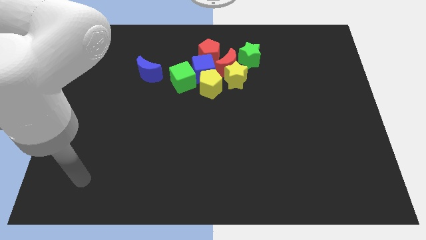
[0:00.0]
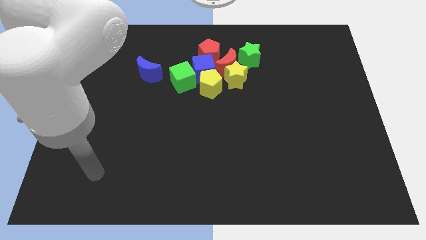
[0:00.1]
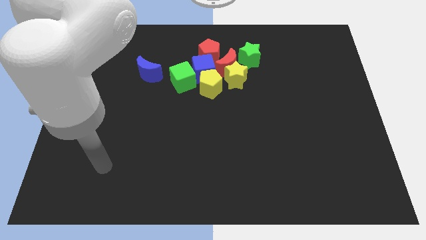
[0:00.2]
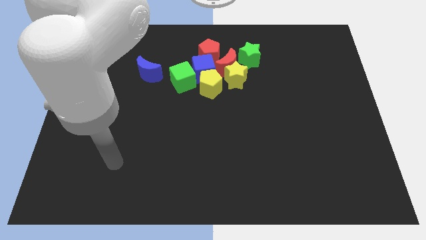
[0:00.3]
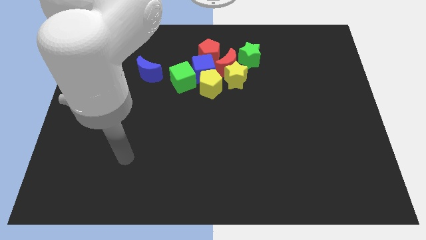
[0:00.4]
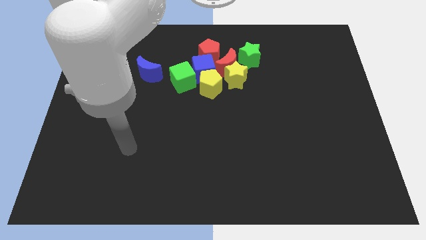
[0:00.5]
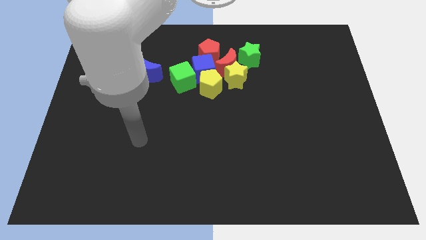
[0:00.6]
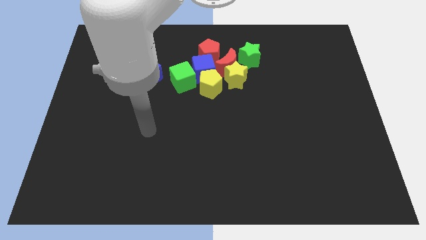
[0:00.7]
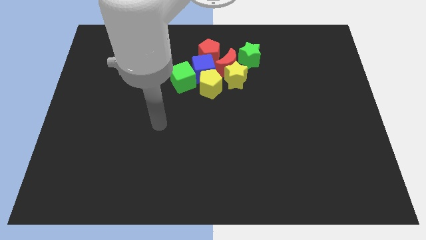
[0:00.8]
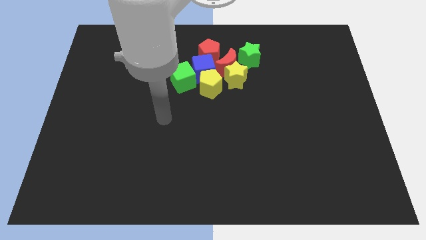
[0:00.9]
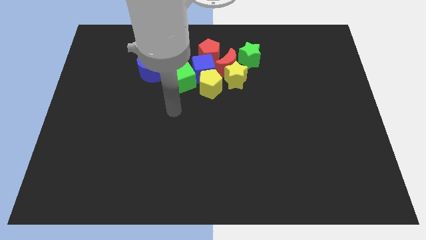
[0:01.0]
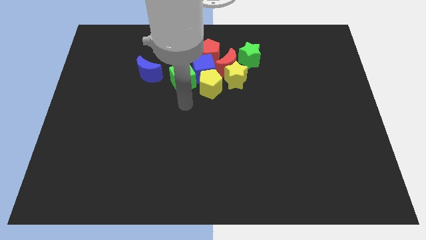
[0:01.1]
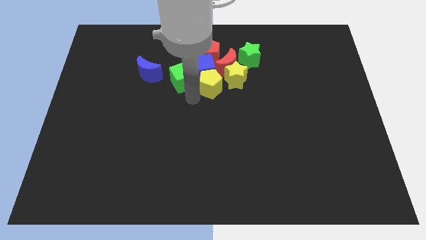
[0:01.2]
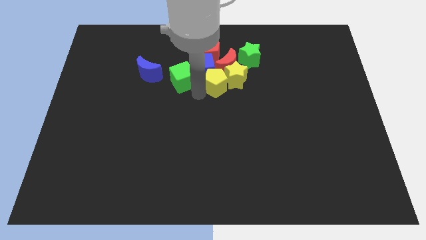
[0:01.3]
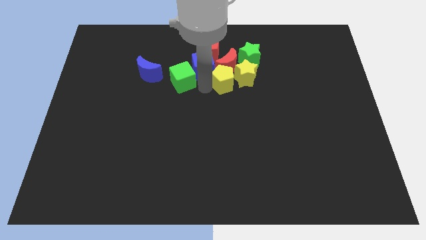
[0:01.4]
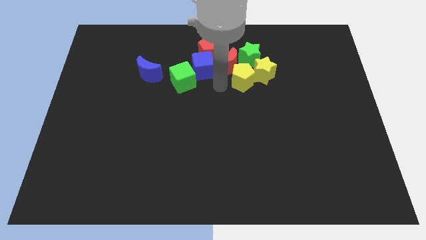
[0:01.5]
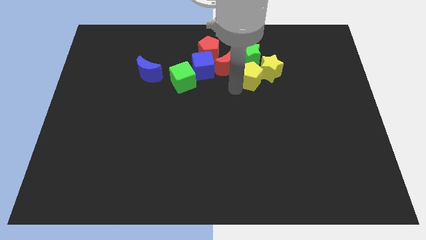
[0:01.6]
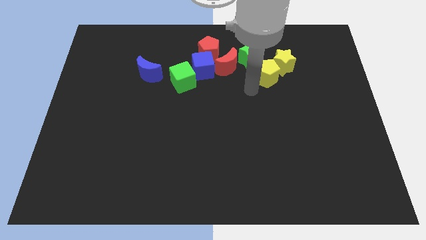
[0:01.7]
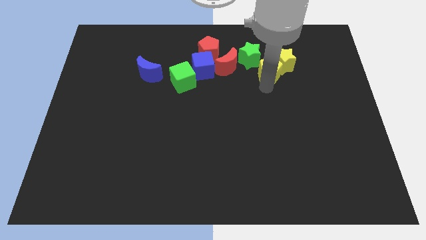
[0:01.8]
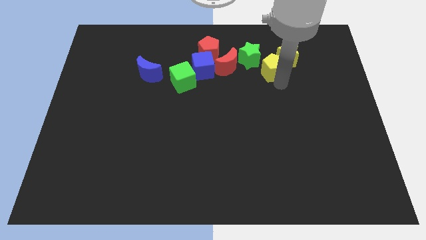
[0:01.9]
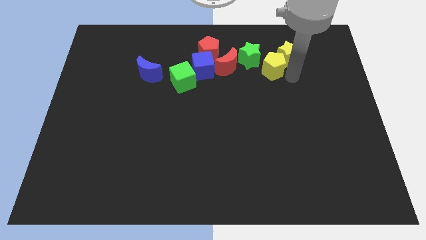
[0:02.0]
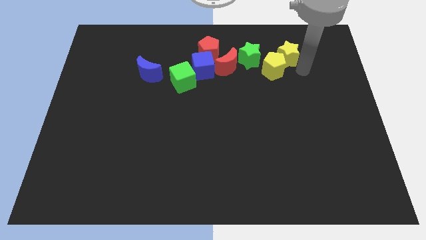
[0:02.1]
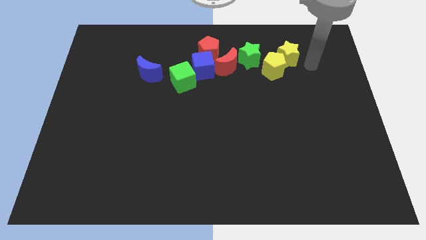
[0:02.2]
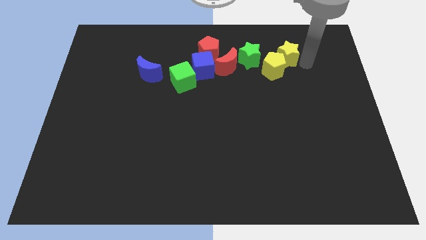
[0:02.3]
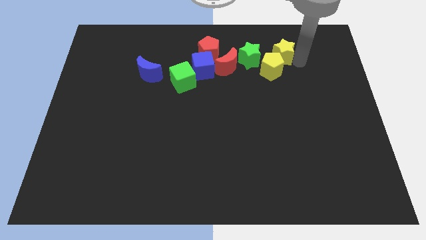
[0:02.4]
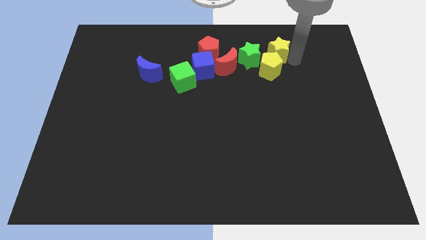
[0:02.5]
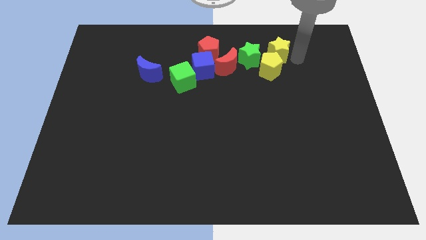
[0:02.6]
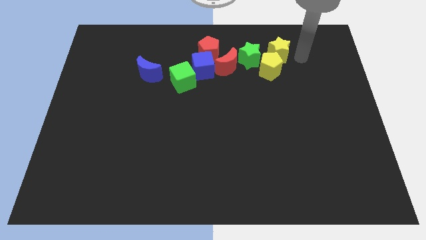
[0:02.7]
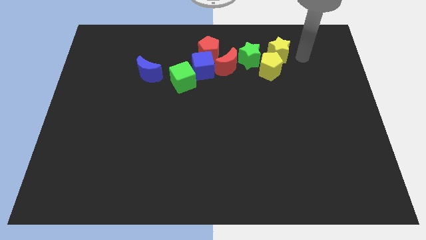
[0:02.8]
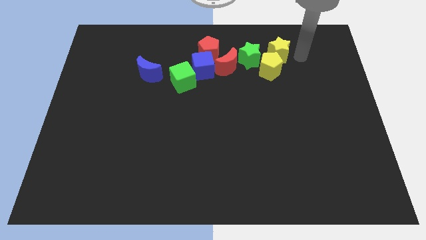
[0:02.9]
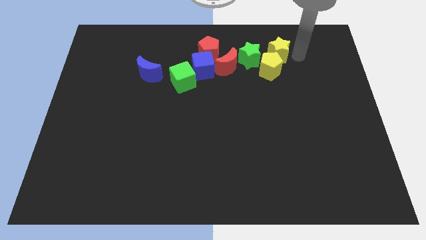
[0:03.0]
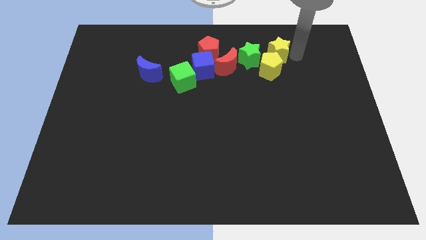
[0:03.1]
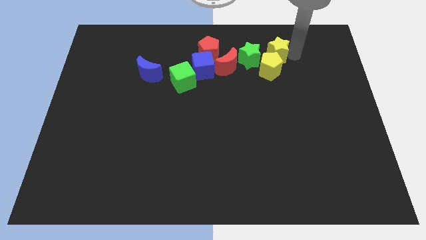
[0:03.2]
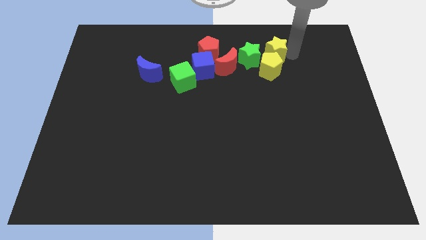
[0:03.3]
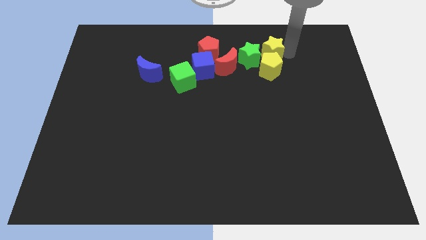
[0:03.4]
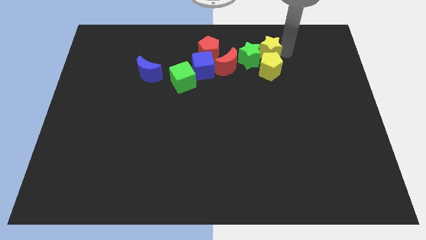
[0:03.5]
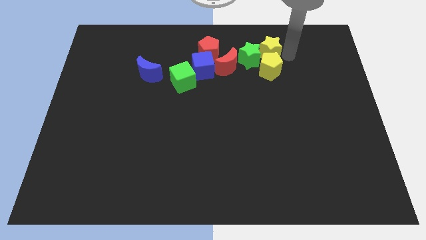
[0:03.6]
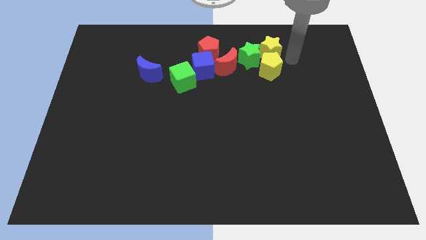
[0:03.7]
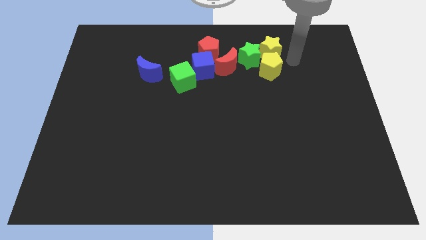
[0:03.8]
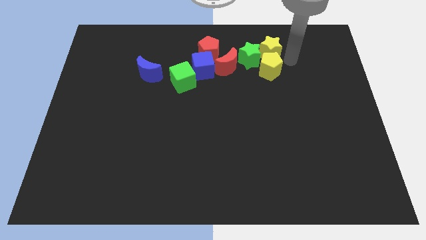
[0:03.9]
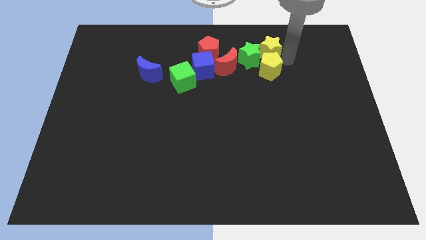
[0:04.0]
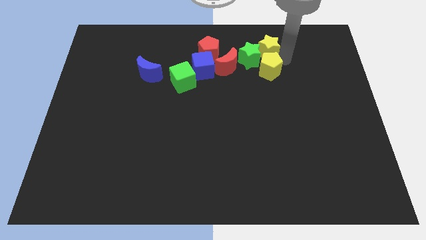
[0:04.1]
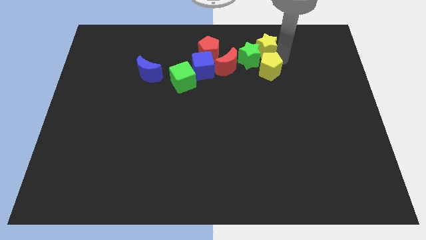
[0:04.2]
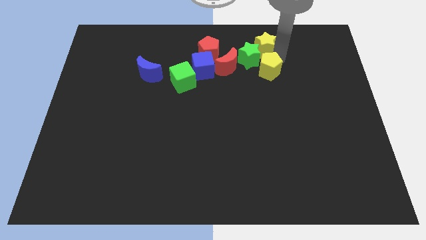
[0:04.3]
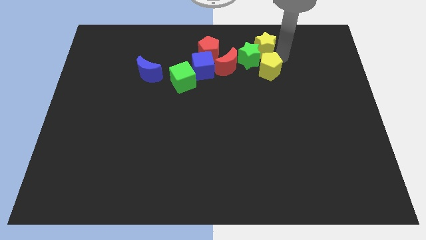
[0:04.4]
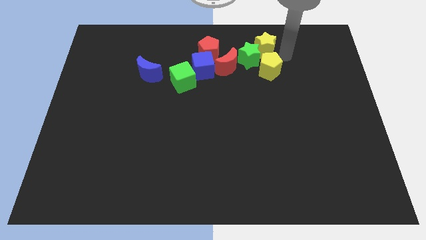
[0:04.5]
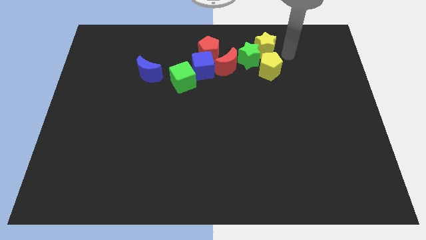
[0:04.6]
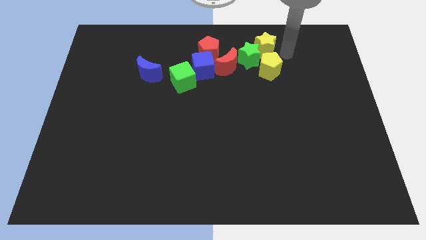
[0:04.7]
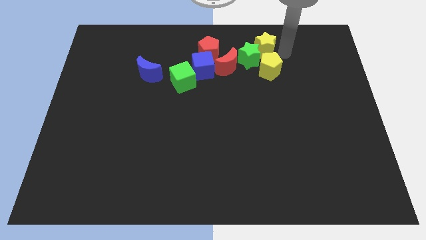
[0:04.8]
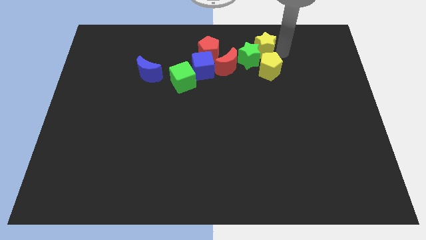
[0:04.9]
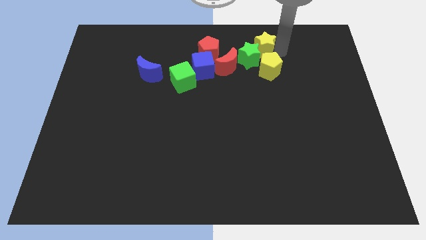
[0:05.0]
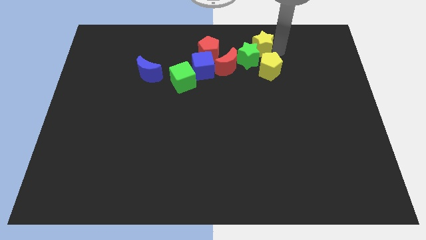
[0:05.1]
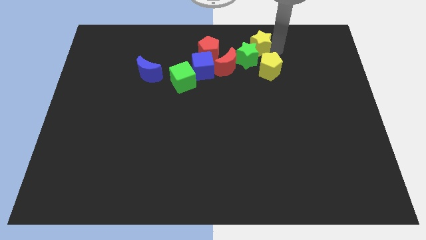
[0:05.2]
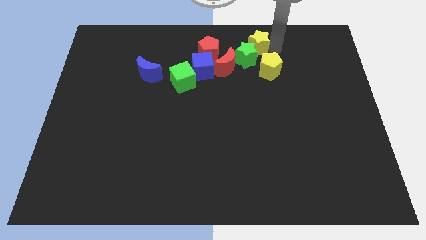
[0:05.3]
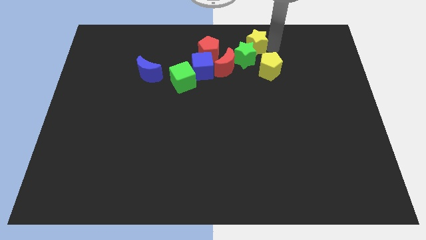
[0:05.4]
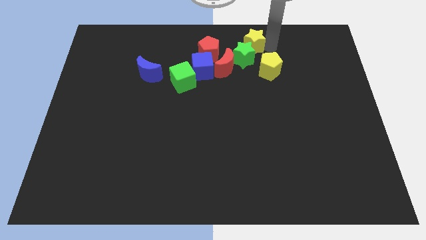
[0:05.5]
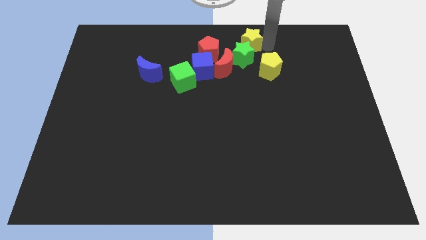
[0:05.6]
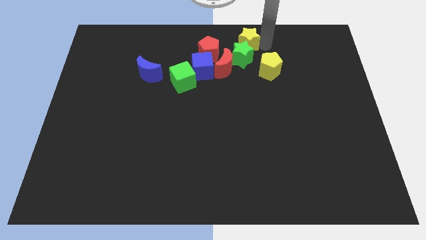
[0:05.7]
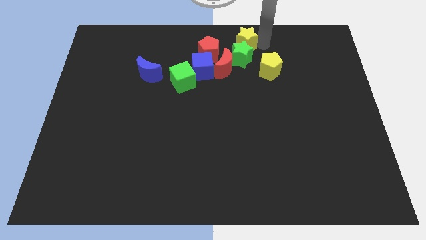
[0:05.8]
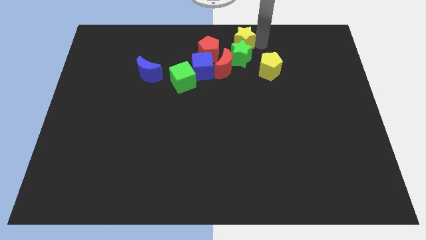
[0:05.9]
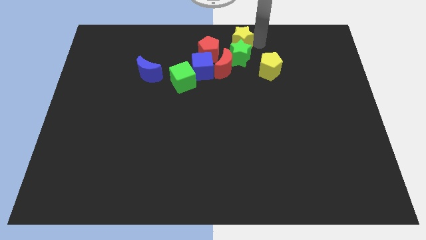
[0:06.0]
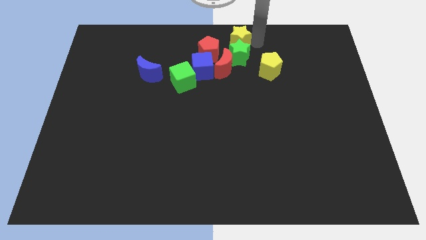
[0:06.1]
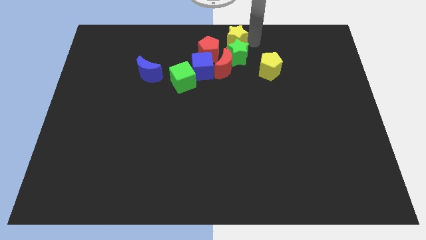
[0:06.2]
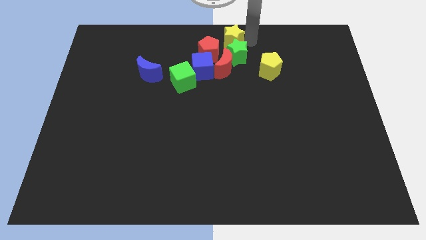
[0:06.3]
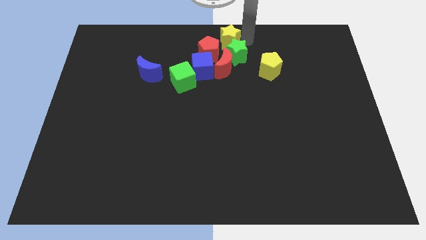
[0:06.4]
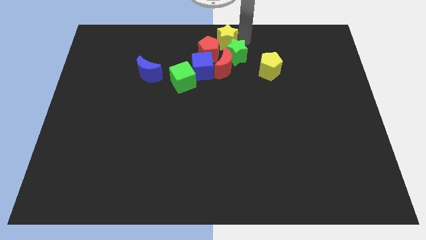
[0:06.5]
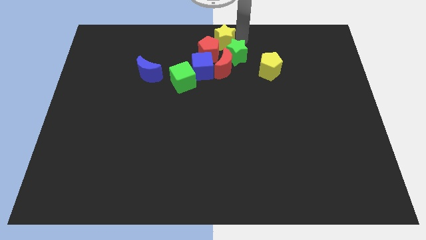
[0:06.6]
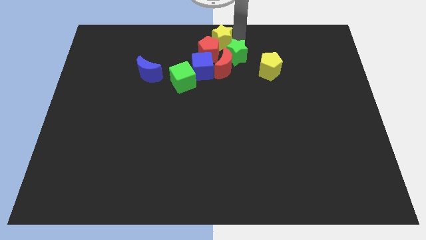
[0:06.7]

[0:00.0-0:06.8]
put the yellow star to the red pentagon

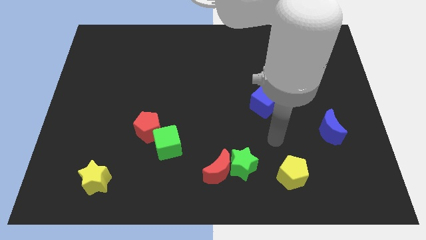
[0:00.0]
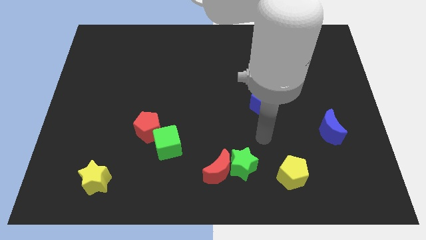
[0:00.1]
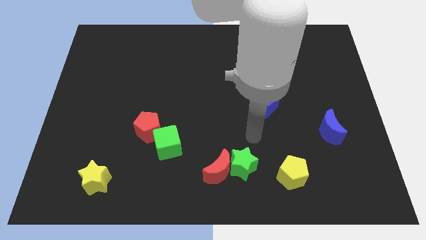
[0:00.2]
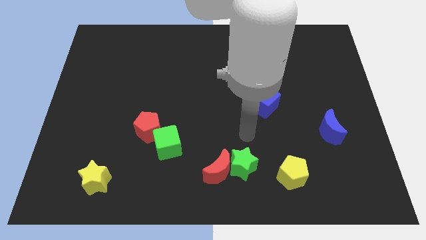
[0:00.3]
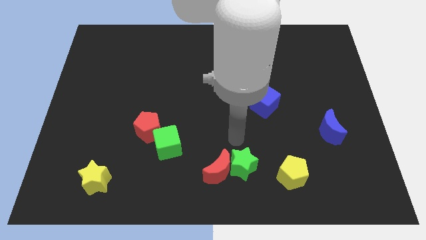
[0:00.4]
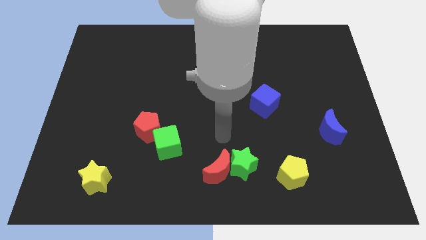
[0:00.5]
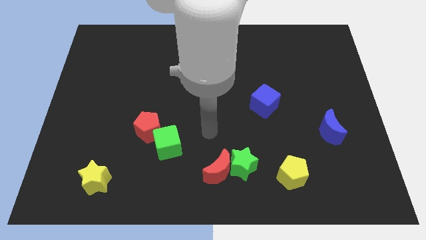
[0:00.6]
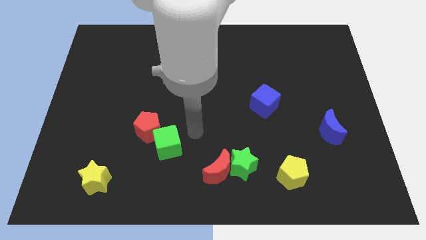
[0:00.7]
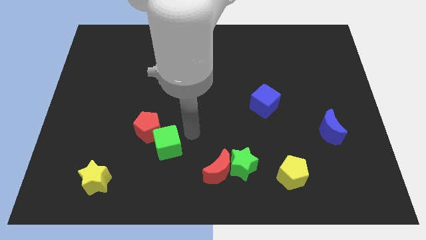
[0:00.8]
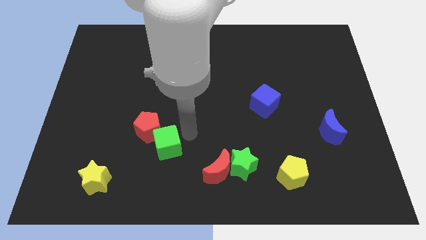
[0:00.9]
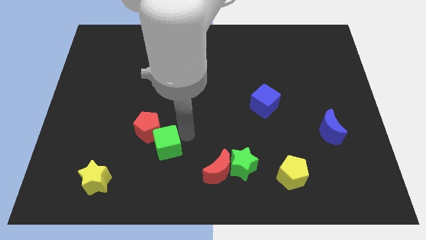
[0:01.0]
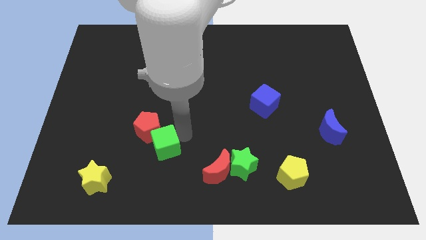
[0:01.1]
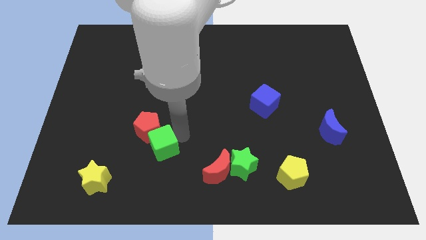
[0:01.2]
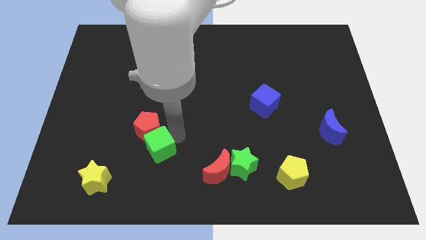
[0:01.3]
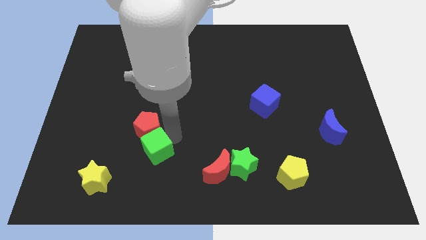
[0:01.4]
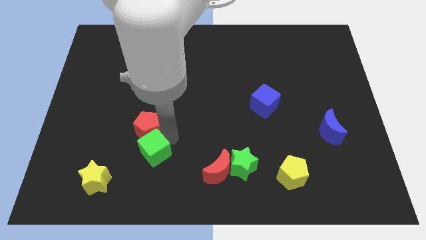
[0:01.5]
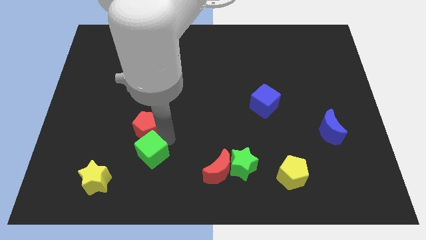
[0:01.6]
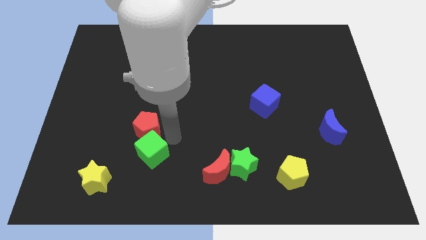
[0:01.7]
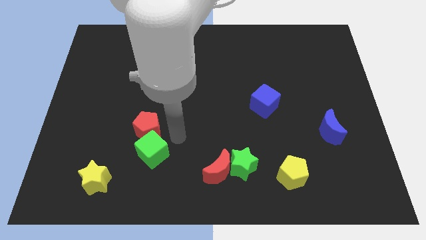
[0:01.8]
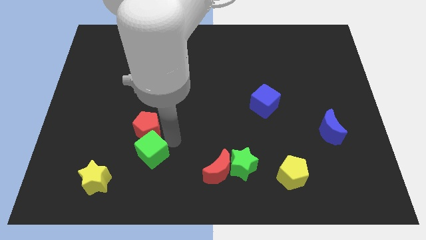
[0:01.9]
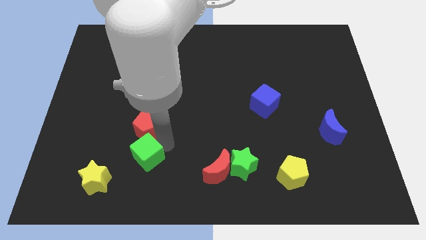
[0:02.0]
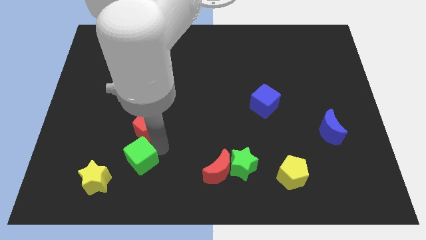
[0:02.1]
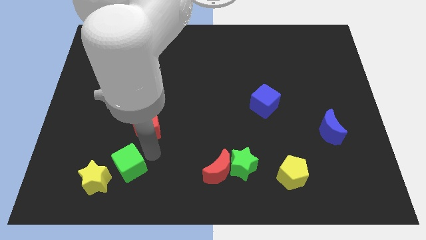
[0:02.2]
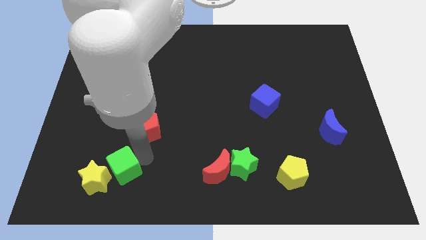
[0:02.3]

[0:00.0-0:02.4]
put the green cube next to the yellow star
